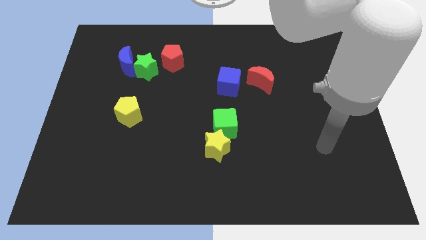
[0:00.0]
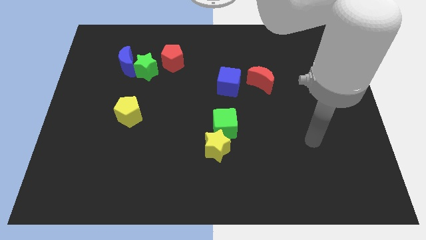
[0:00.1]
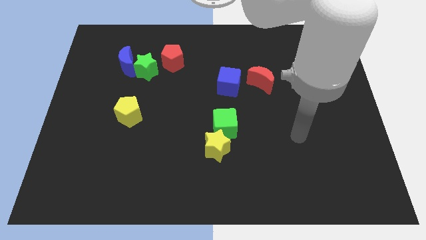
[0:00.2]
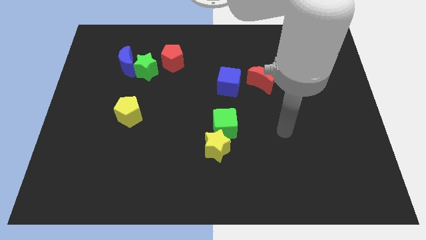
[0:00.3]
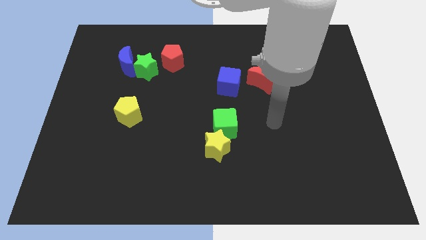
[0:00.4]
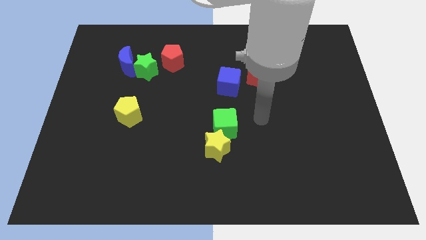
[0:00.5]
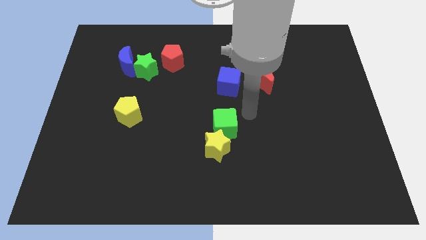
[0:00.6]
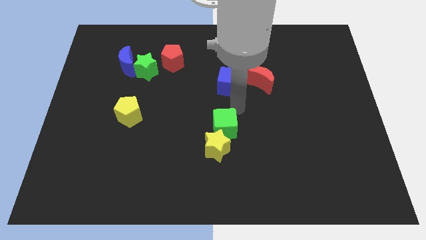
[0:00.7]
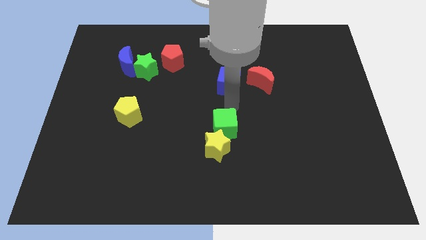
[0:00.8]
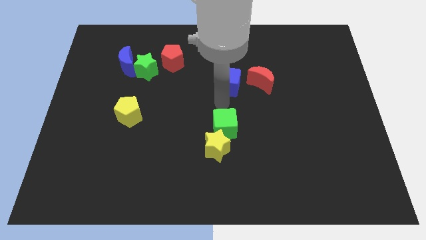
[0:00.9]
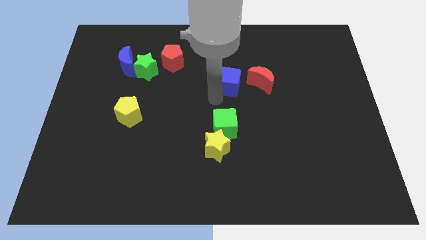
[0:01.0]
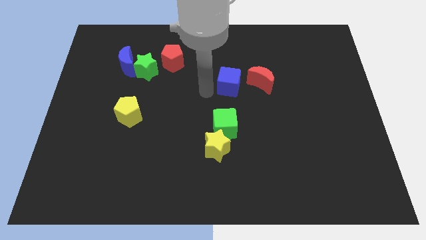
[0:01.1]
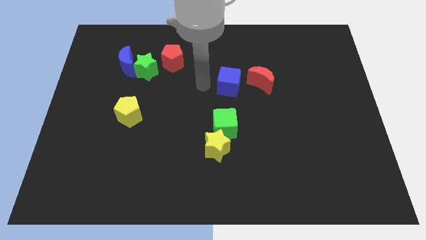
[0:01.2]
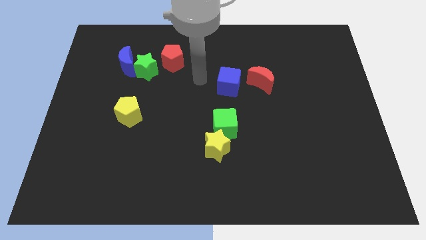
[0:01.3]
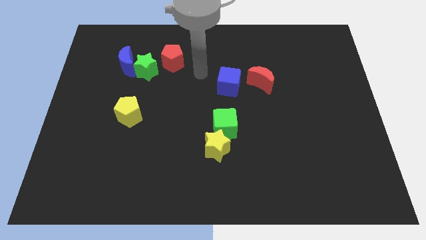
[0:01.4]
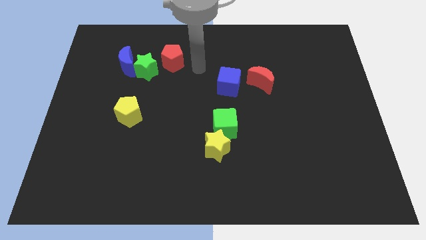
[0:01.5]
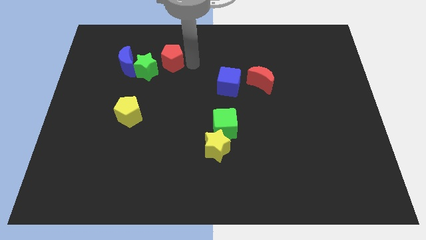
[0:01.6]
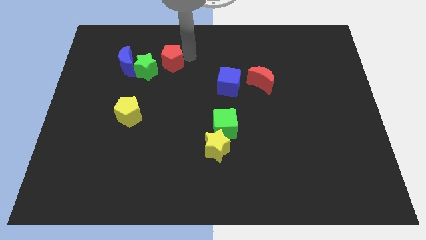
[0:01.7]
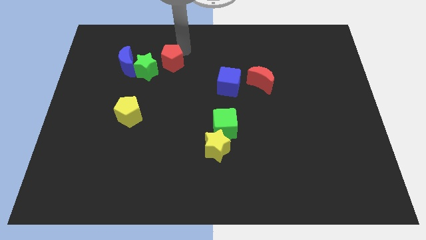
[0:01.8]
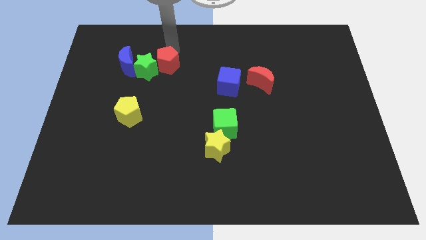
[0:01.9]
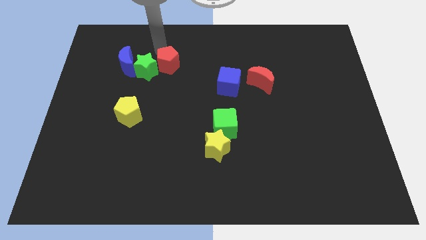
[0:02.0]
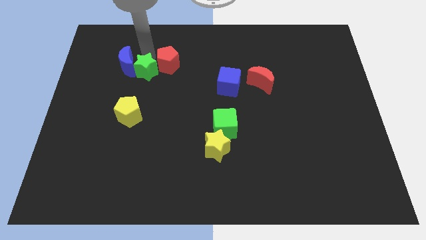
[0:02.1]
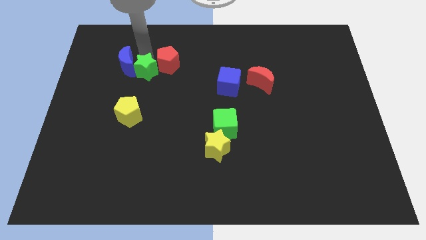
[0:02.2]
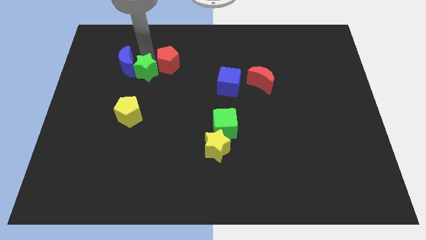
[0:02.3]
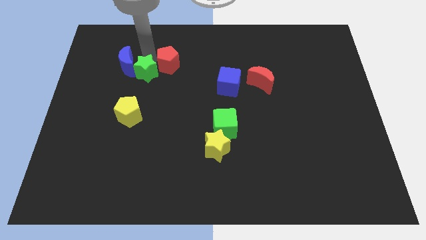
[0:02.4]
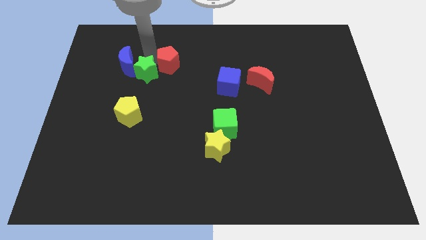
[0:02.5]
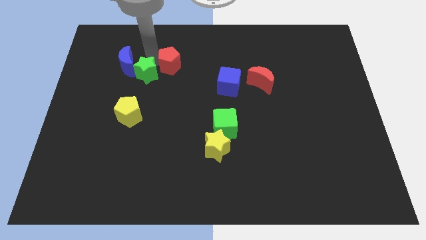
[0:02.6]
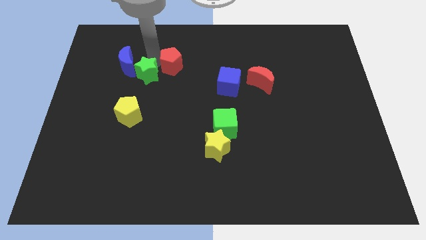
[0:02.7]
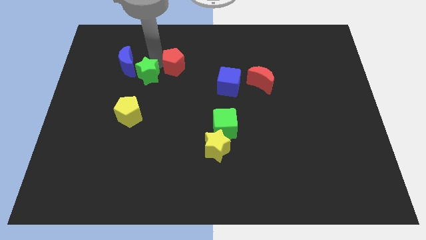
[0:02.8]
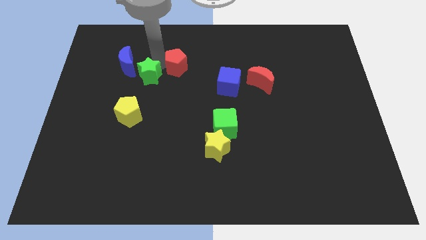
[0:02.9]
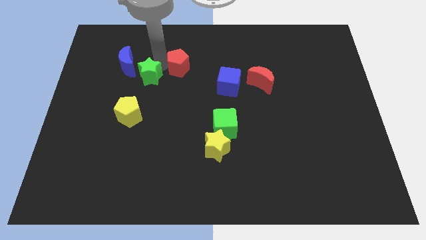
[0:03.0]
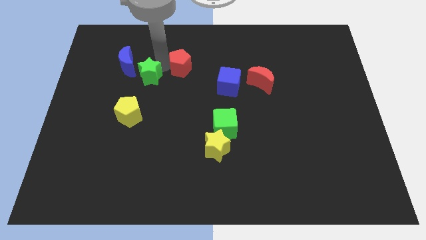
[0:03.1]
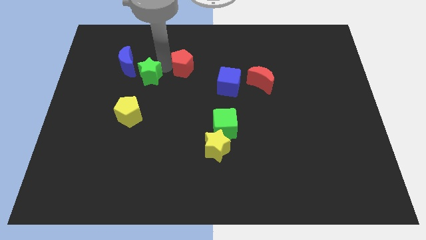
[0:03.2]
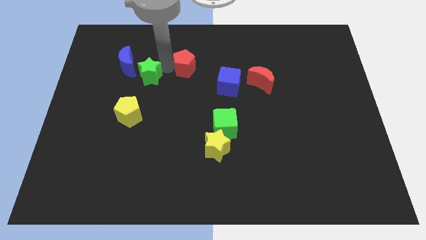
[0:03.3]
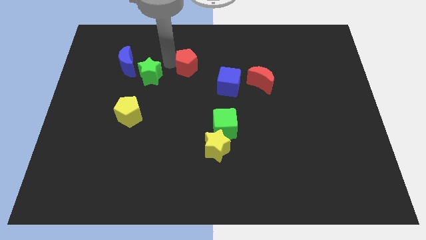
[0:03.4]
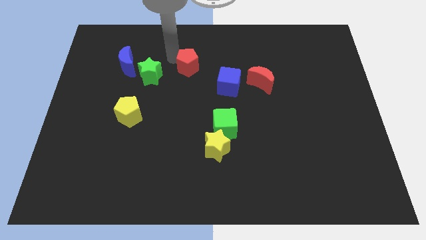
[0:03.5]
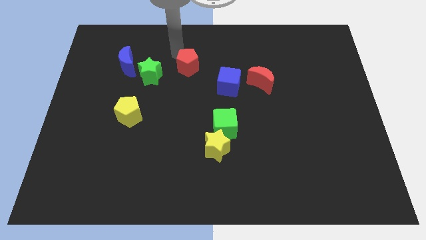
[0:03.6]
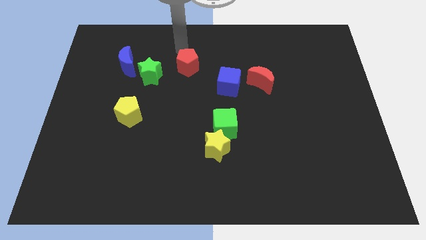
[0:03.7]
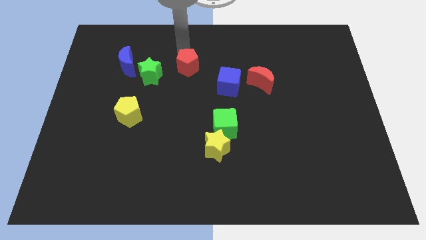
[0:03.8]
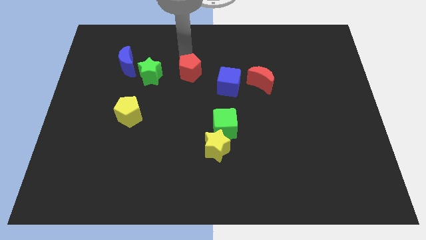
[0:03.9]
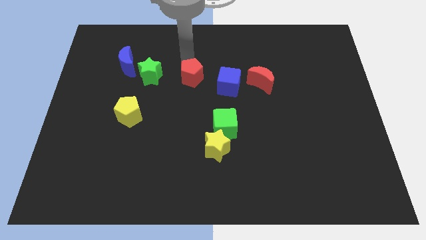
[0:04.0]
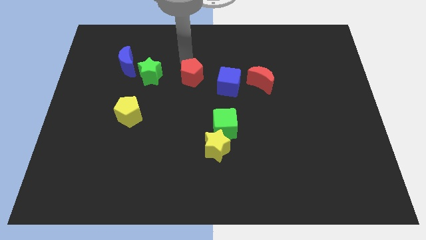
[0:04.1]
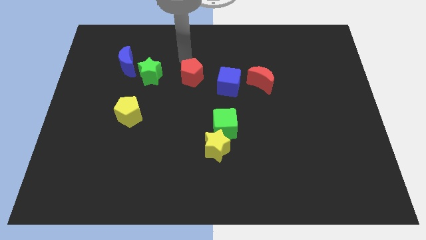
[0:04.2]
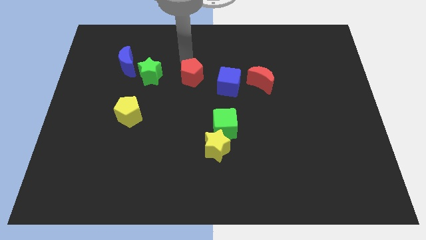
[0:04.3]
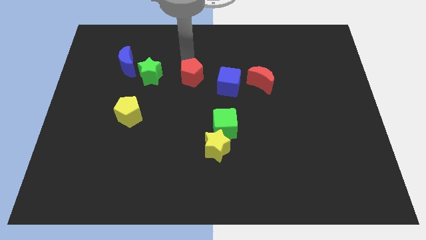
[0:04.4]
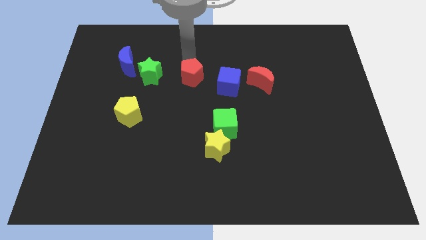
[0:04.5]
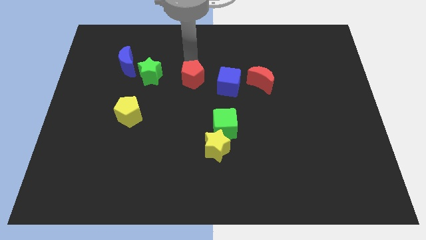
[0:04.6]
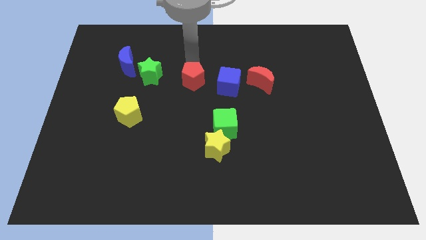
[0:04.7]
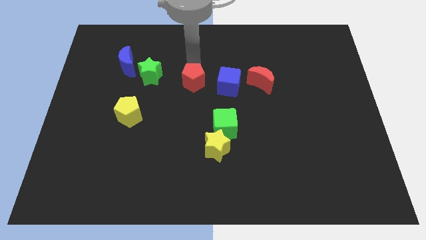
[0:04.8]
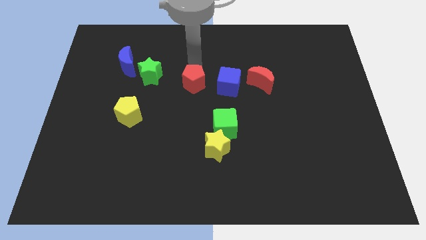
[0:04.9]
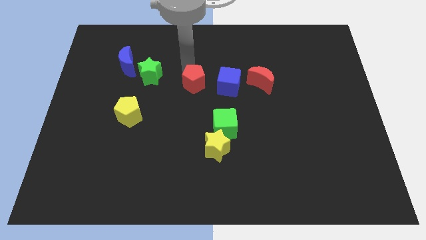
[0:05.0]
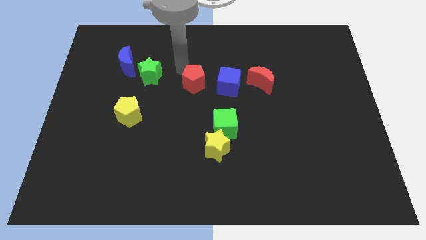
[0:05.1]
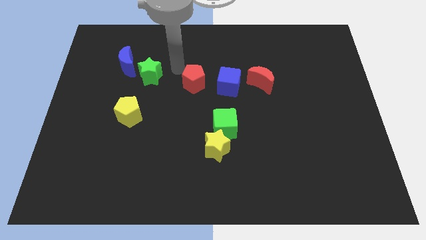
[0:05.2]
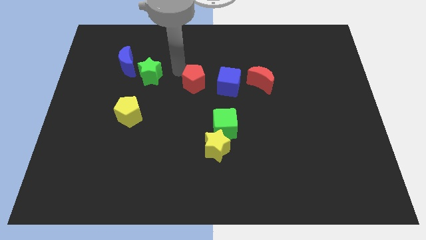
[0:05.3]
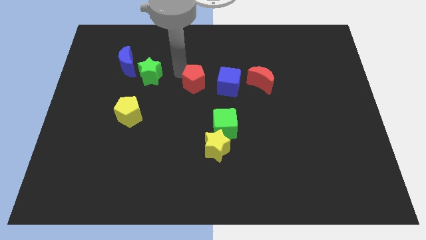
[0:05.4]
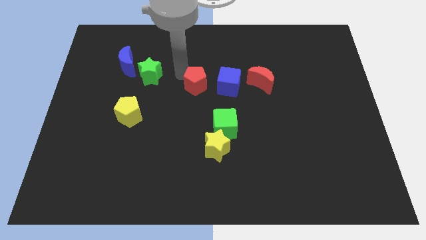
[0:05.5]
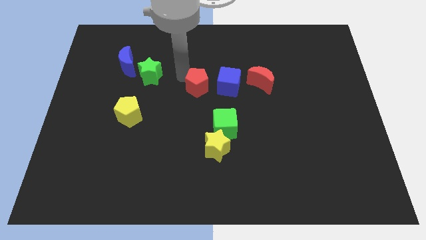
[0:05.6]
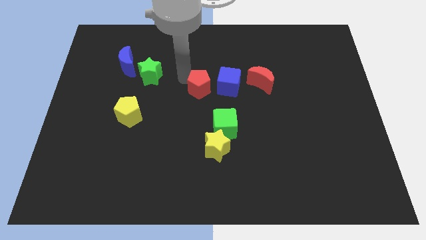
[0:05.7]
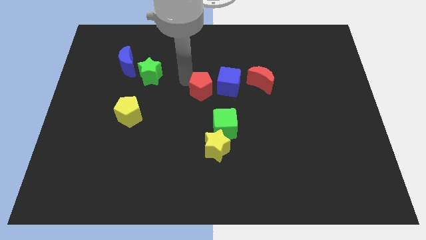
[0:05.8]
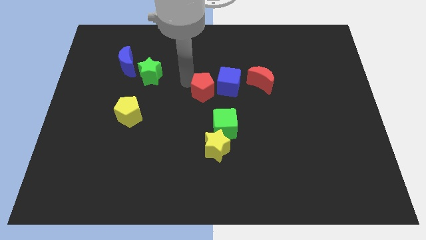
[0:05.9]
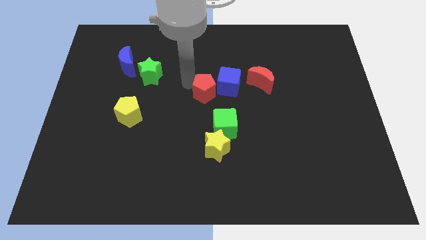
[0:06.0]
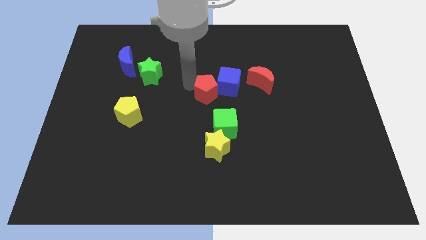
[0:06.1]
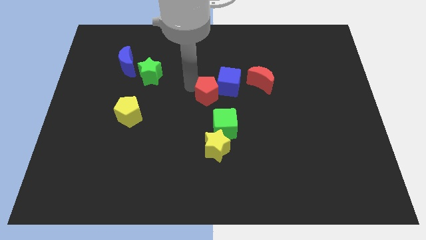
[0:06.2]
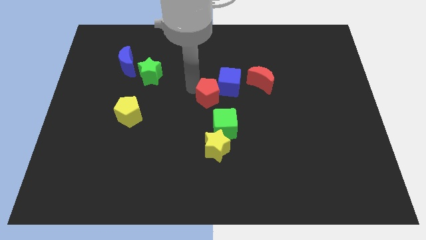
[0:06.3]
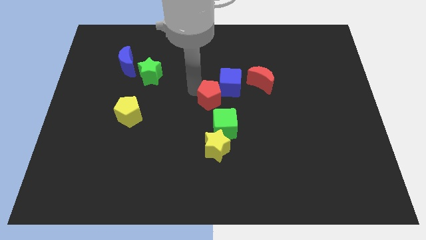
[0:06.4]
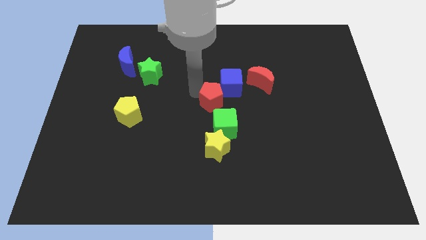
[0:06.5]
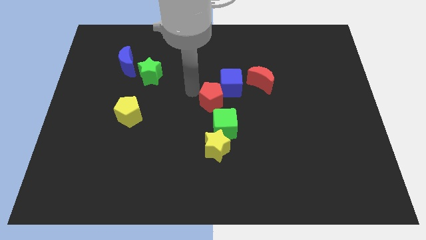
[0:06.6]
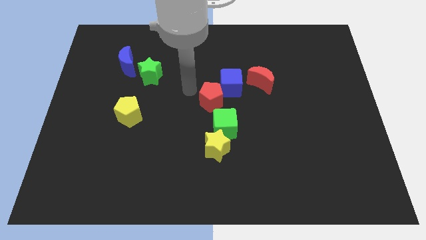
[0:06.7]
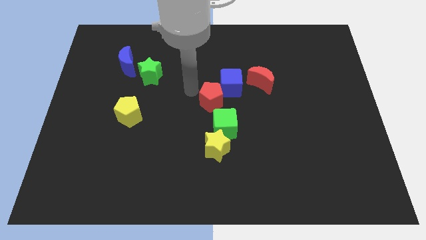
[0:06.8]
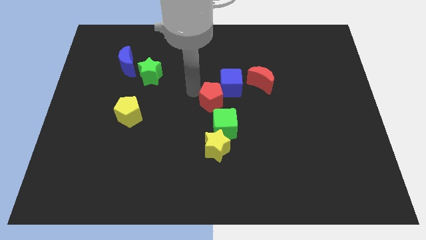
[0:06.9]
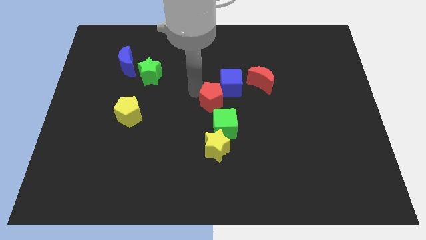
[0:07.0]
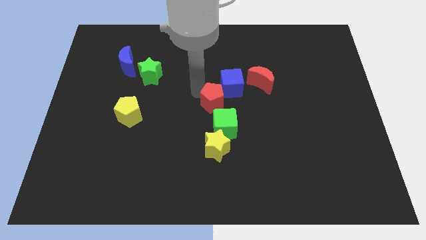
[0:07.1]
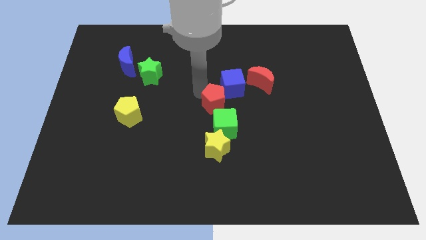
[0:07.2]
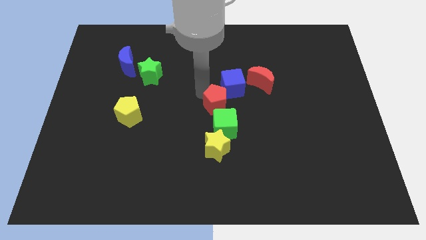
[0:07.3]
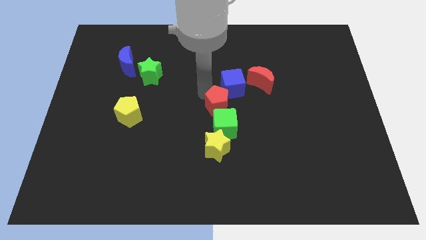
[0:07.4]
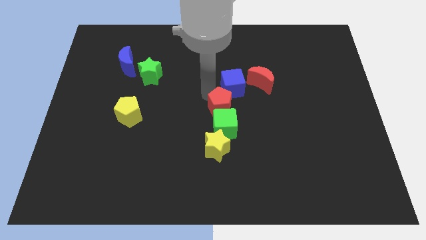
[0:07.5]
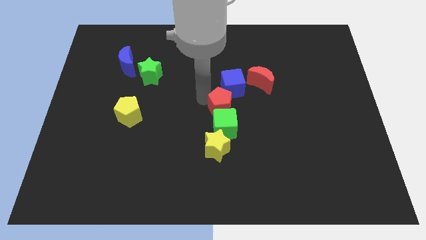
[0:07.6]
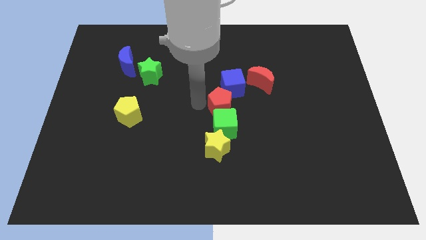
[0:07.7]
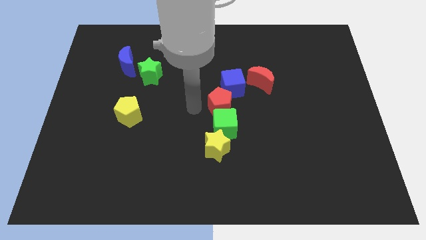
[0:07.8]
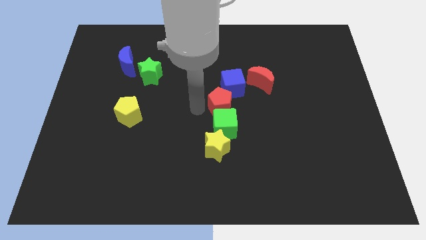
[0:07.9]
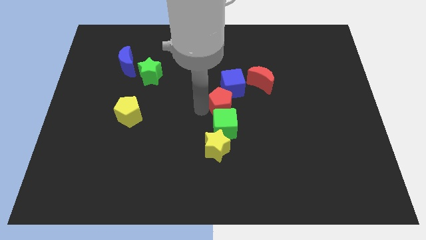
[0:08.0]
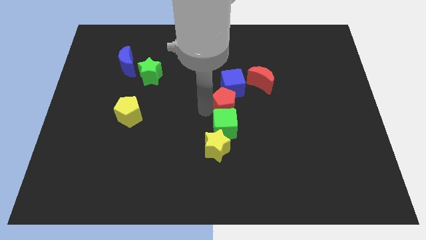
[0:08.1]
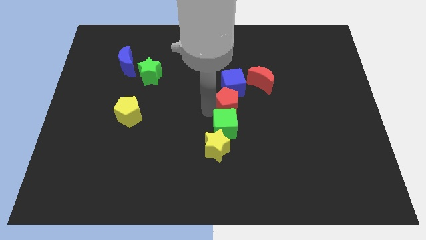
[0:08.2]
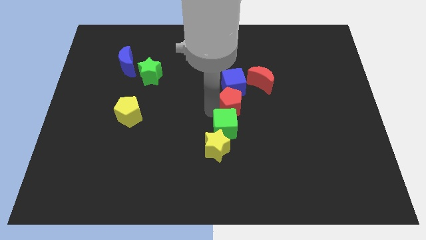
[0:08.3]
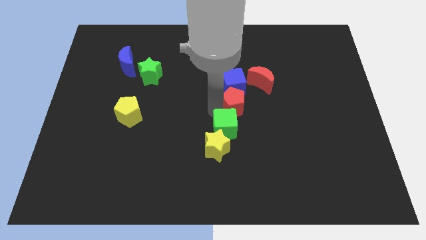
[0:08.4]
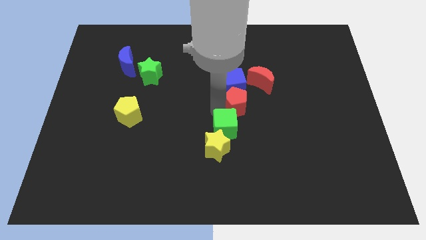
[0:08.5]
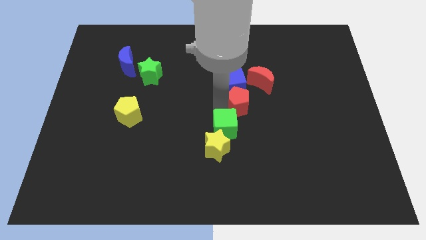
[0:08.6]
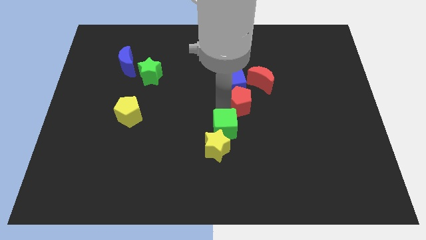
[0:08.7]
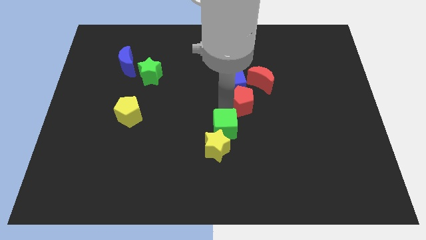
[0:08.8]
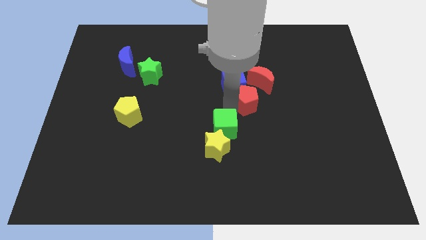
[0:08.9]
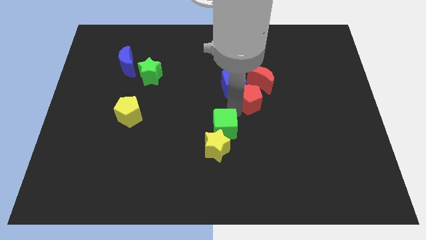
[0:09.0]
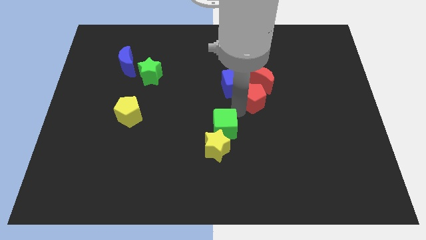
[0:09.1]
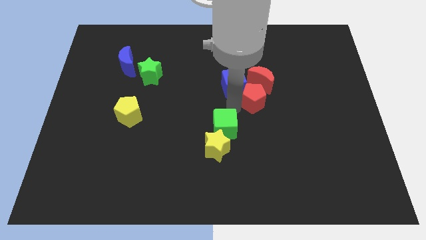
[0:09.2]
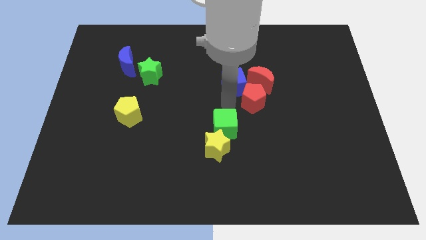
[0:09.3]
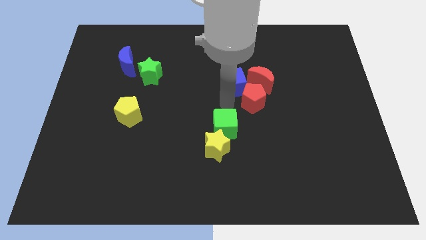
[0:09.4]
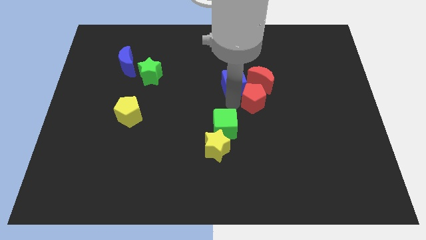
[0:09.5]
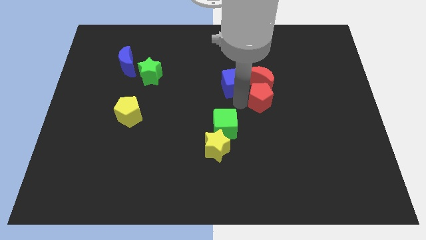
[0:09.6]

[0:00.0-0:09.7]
slide the red pentagon to the bottom right side of the red moon
